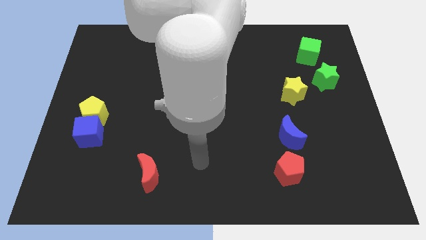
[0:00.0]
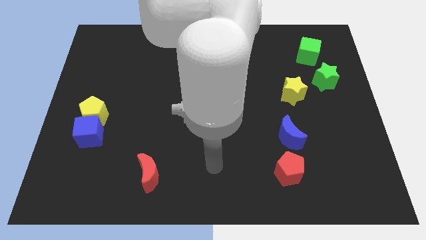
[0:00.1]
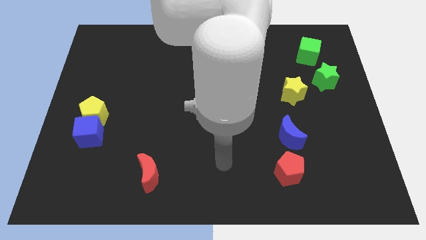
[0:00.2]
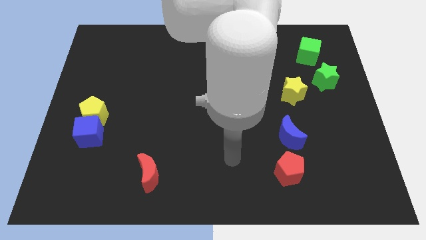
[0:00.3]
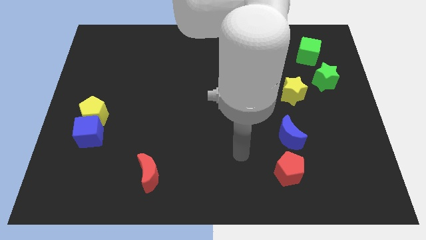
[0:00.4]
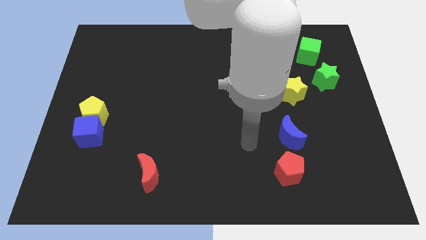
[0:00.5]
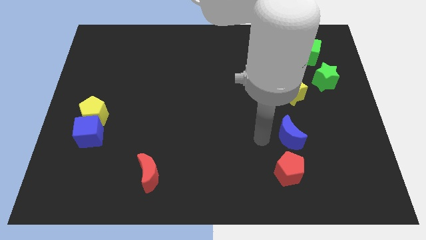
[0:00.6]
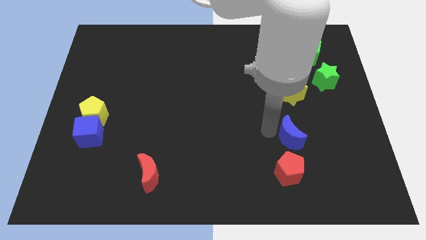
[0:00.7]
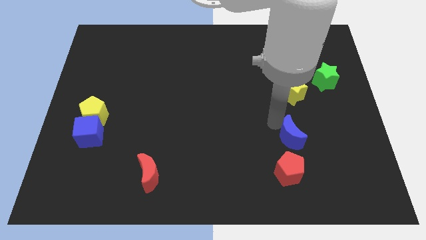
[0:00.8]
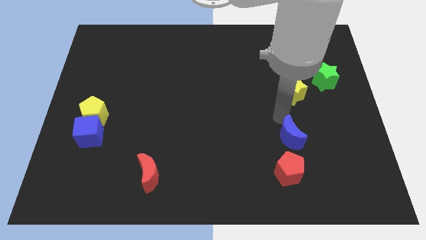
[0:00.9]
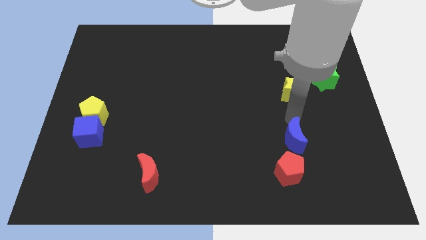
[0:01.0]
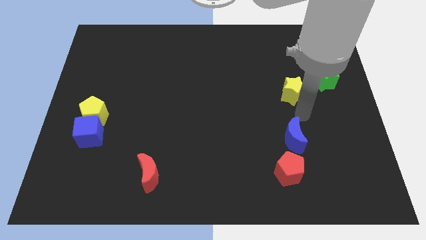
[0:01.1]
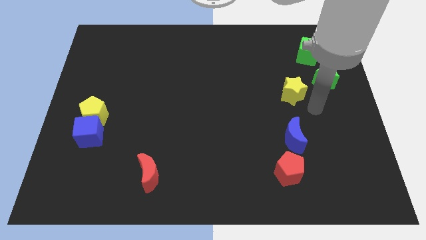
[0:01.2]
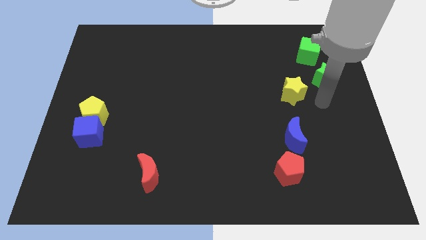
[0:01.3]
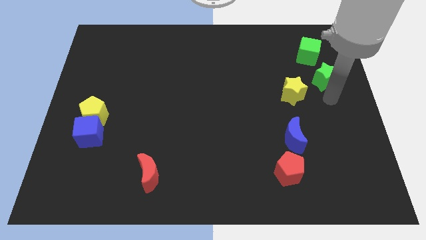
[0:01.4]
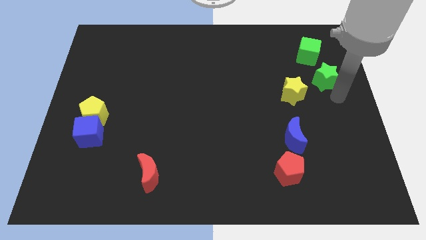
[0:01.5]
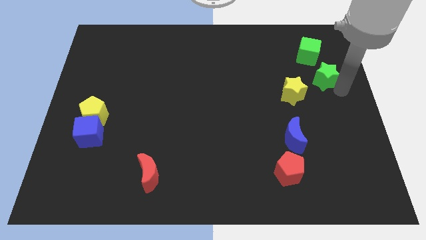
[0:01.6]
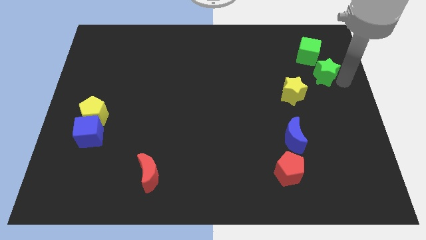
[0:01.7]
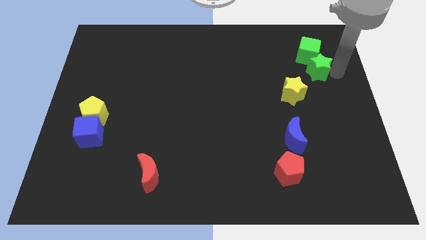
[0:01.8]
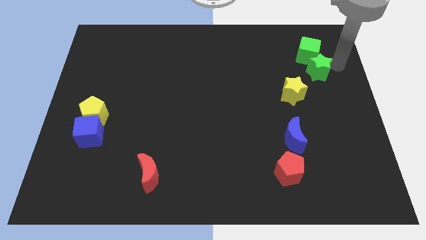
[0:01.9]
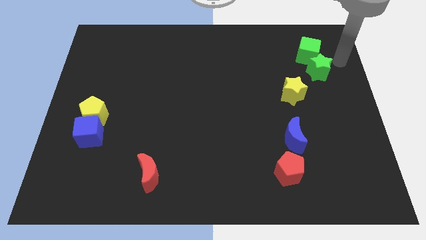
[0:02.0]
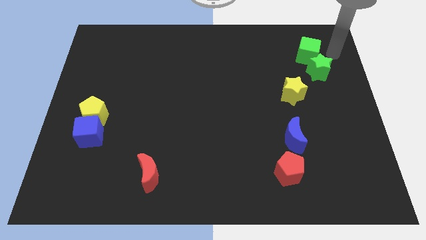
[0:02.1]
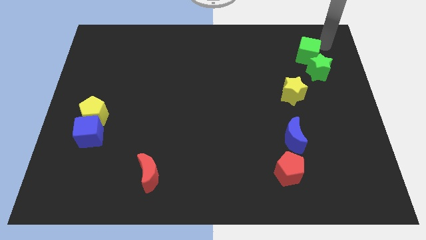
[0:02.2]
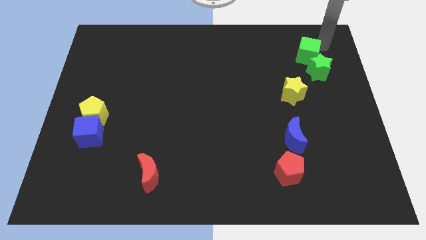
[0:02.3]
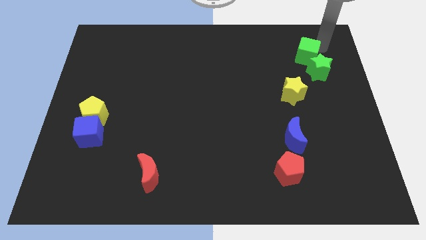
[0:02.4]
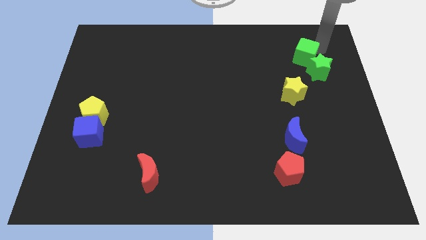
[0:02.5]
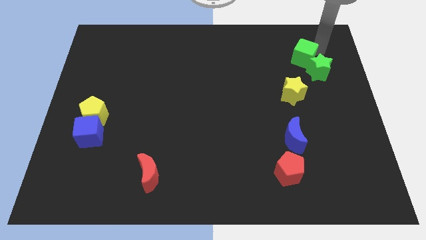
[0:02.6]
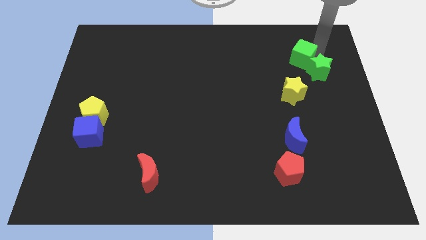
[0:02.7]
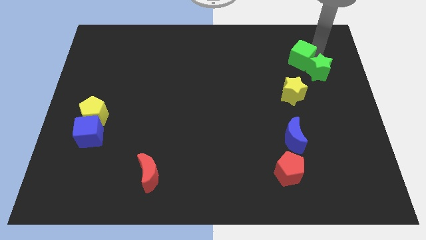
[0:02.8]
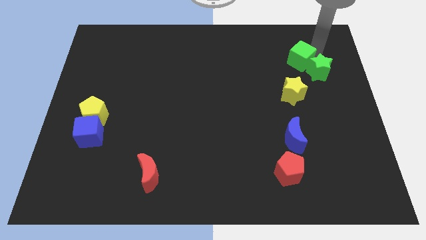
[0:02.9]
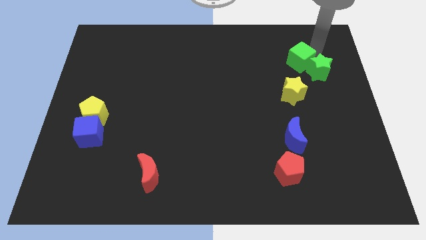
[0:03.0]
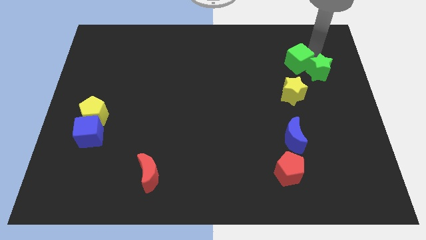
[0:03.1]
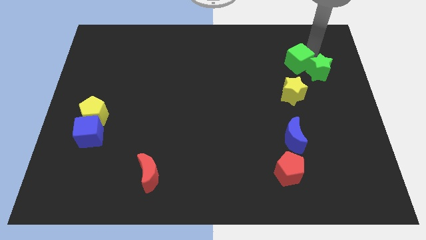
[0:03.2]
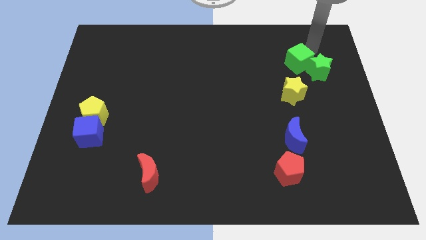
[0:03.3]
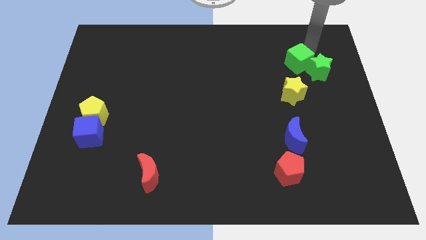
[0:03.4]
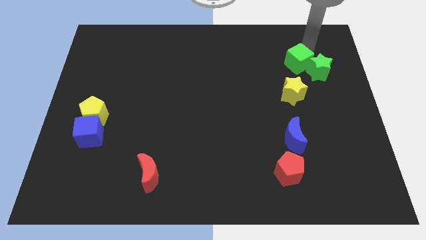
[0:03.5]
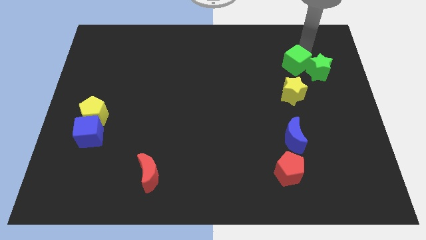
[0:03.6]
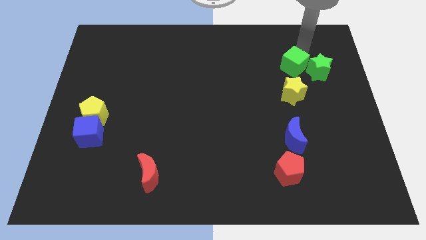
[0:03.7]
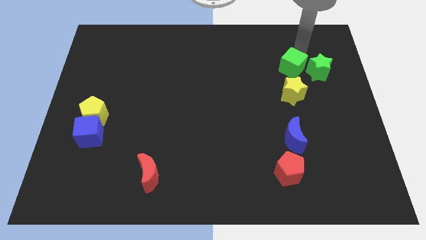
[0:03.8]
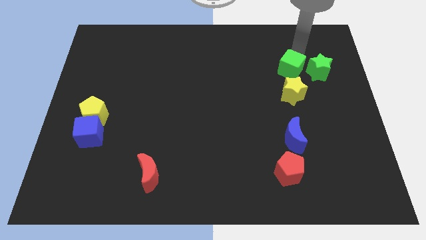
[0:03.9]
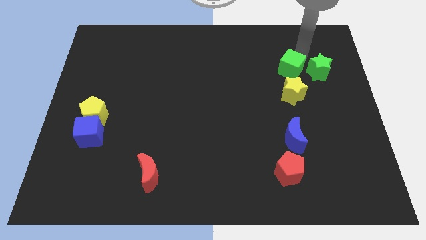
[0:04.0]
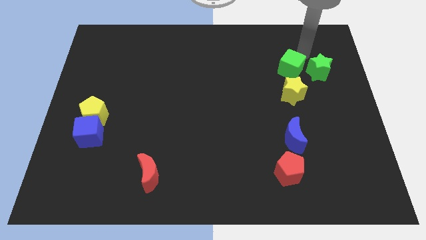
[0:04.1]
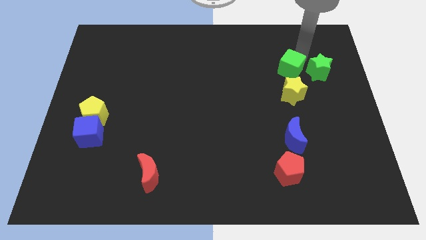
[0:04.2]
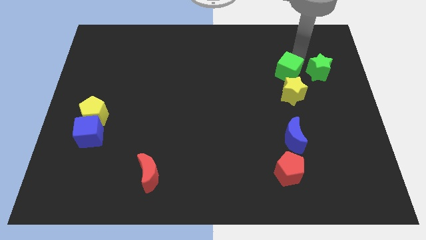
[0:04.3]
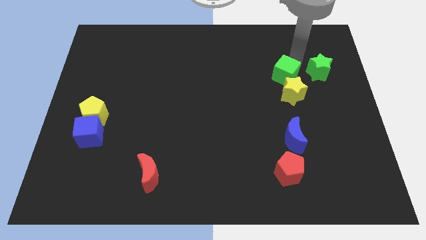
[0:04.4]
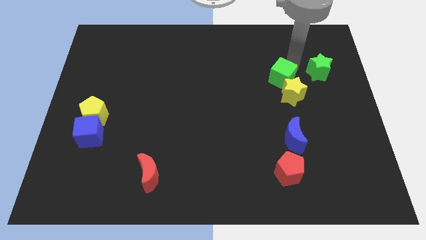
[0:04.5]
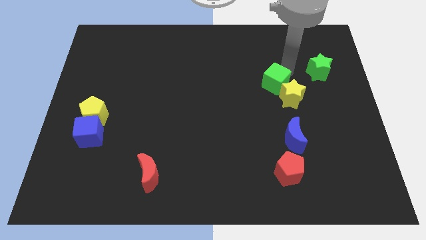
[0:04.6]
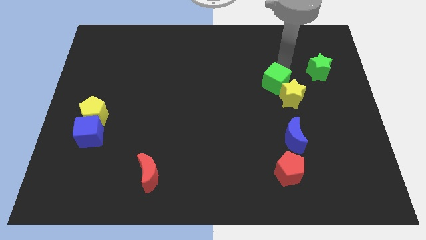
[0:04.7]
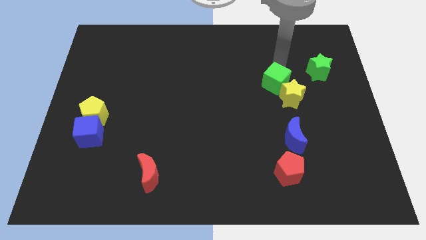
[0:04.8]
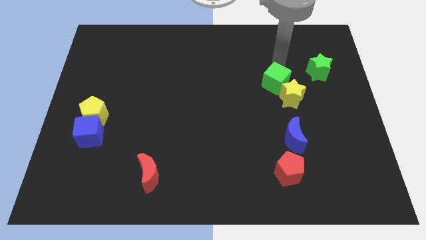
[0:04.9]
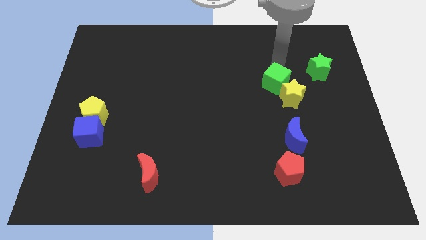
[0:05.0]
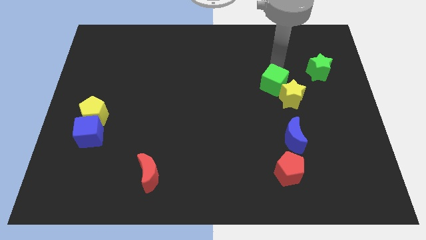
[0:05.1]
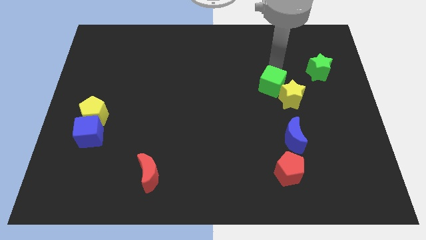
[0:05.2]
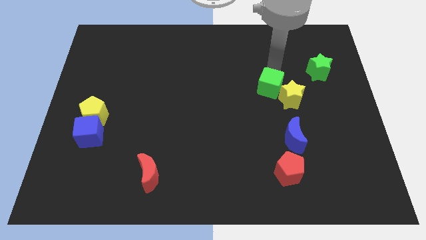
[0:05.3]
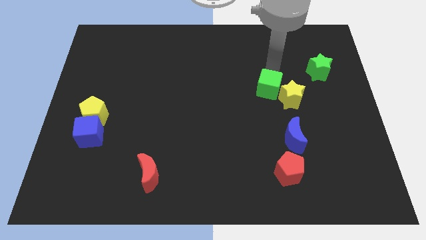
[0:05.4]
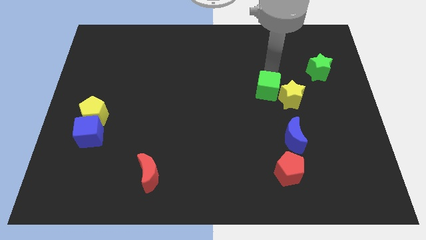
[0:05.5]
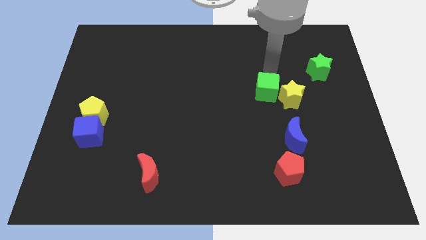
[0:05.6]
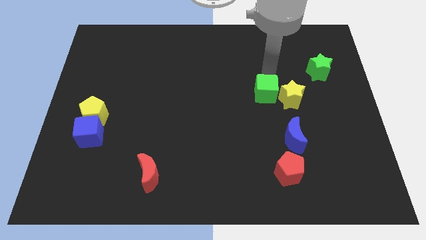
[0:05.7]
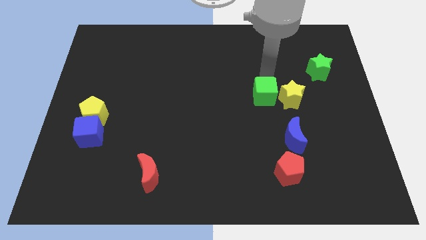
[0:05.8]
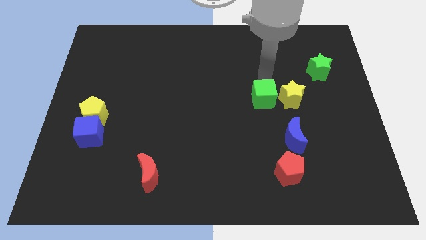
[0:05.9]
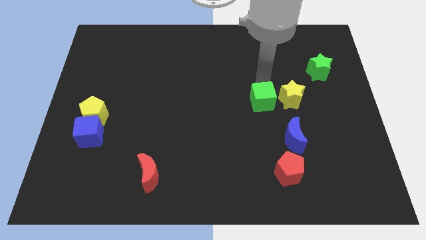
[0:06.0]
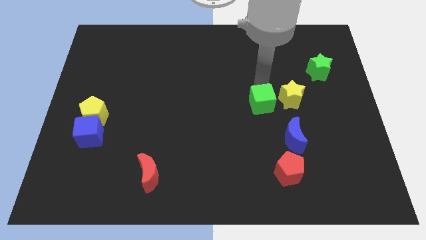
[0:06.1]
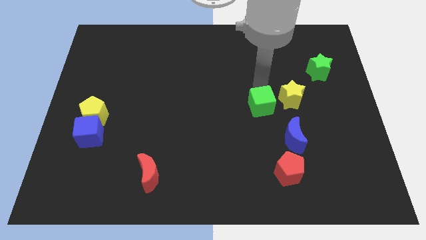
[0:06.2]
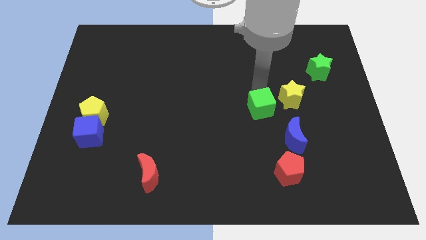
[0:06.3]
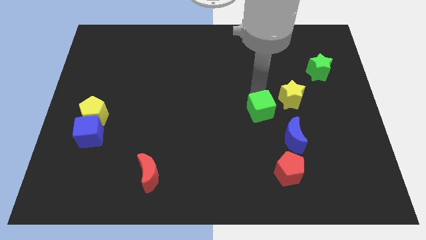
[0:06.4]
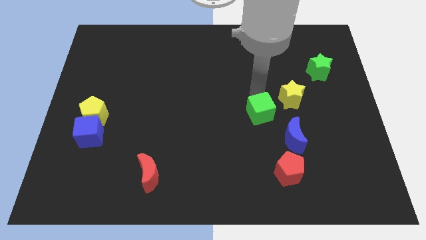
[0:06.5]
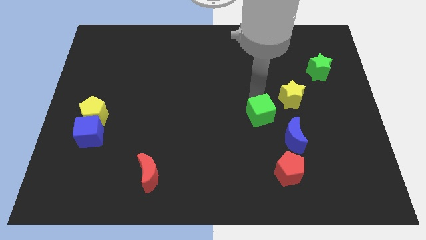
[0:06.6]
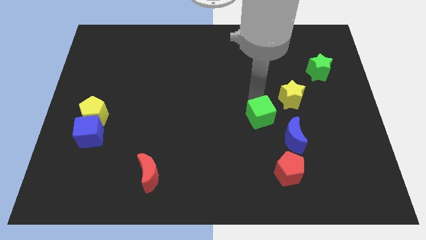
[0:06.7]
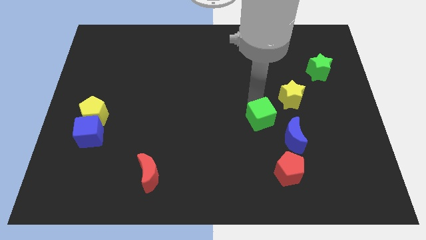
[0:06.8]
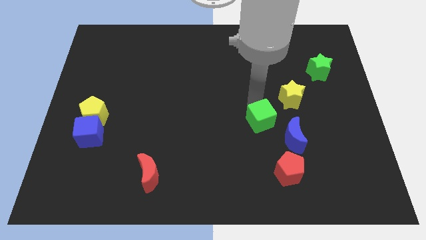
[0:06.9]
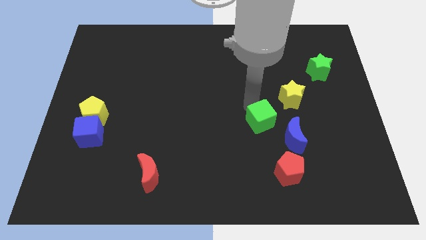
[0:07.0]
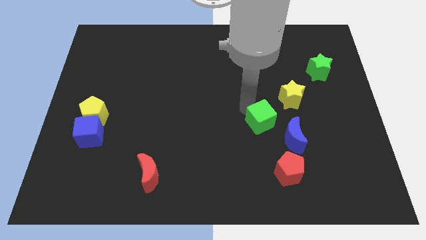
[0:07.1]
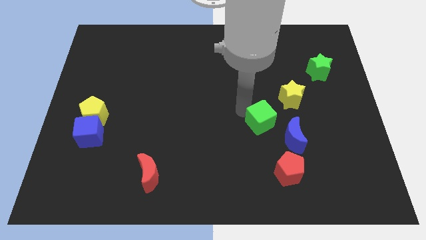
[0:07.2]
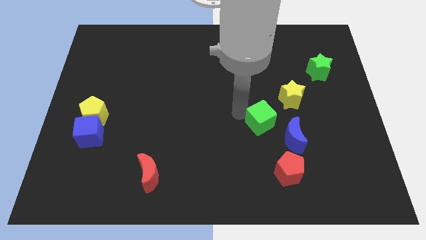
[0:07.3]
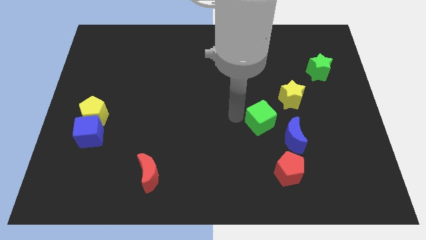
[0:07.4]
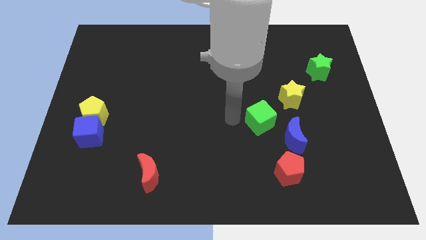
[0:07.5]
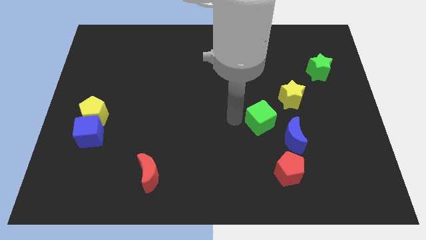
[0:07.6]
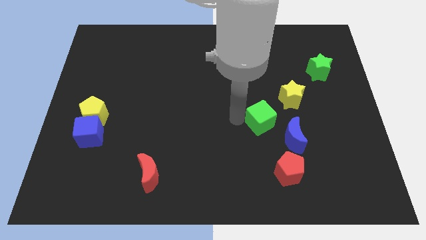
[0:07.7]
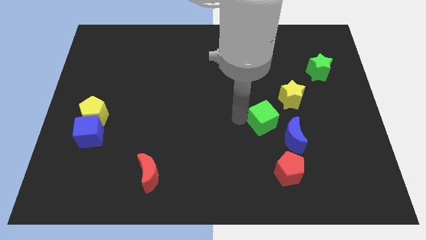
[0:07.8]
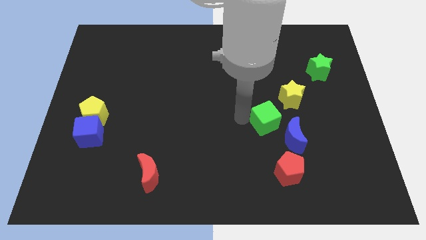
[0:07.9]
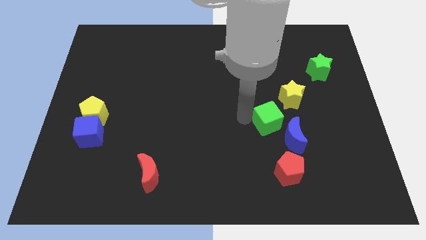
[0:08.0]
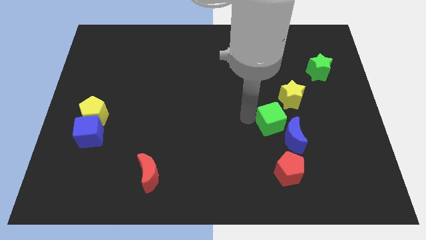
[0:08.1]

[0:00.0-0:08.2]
put the green cube to the blue moon
